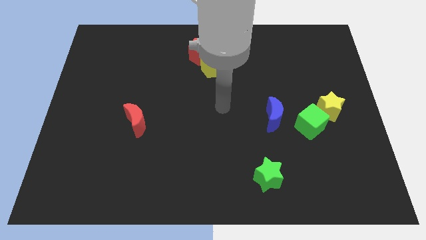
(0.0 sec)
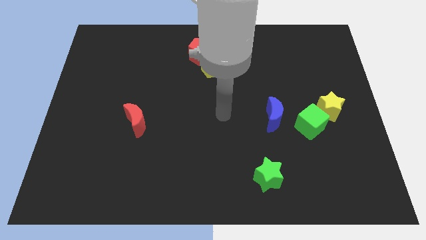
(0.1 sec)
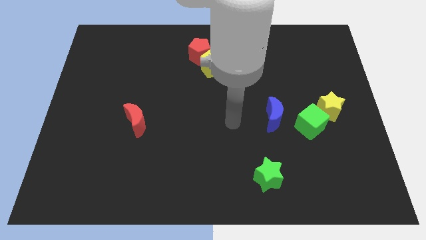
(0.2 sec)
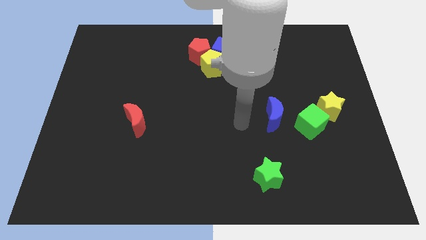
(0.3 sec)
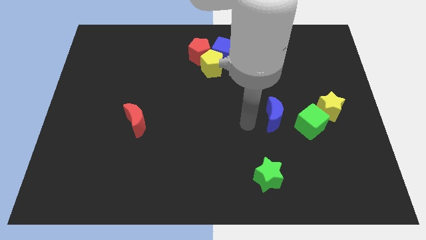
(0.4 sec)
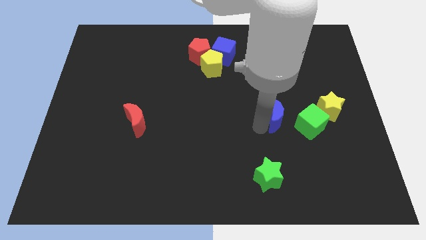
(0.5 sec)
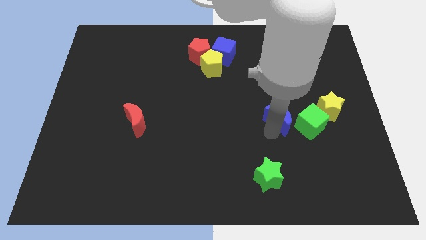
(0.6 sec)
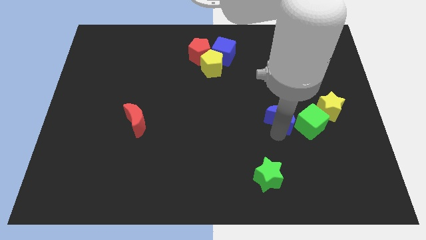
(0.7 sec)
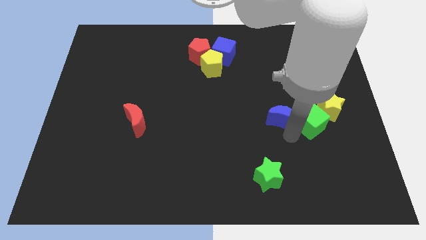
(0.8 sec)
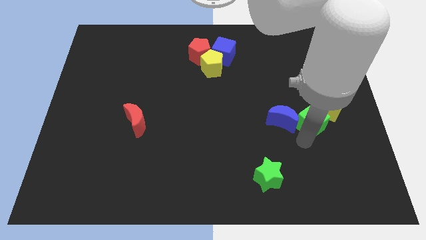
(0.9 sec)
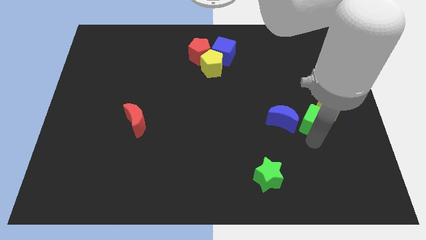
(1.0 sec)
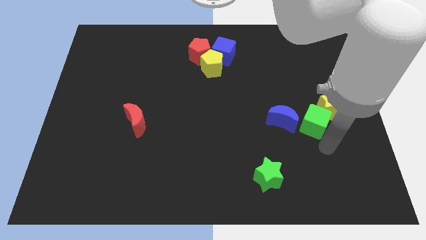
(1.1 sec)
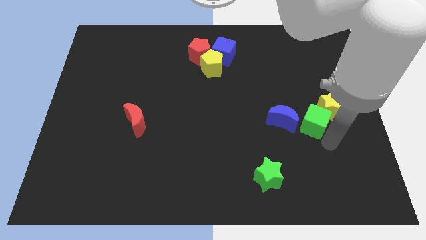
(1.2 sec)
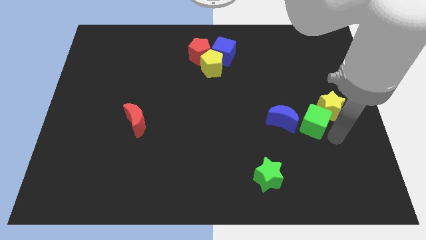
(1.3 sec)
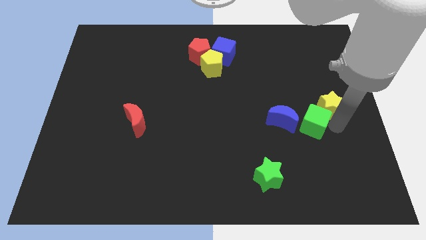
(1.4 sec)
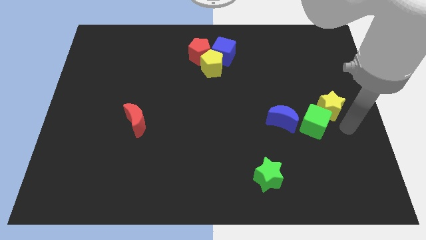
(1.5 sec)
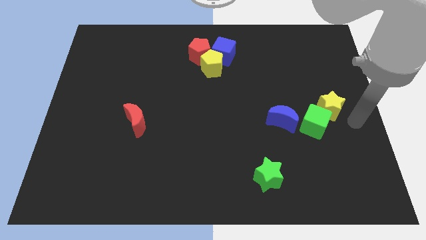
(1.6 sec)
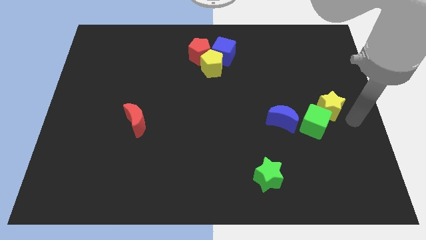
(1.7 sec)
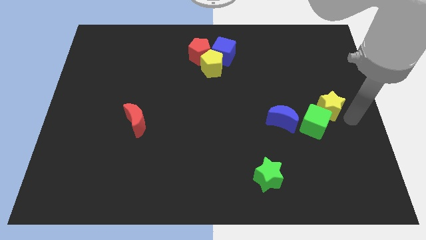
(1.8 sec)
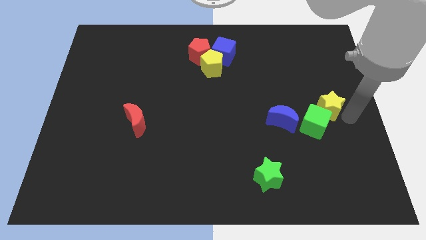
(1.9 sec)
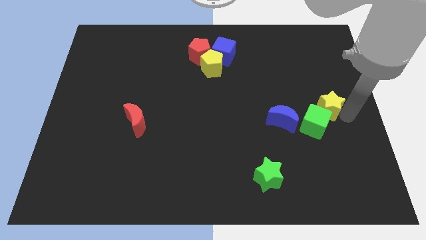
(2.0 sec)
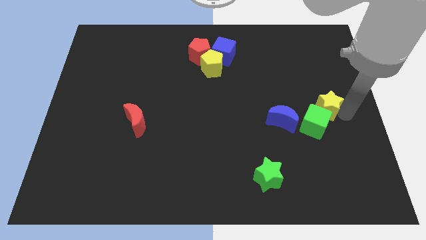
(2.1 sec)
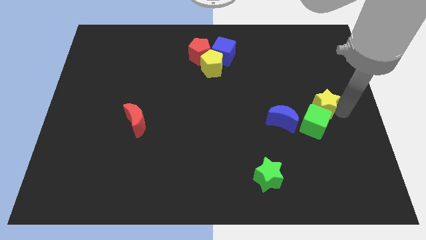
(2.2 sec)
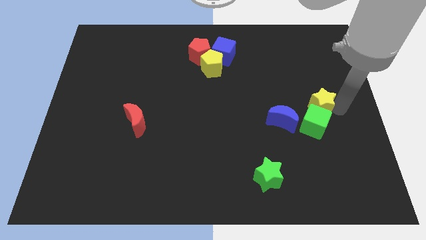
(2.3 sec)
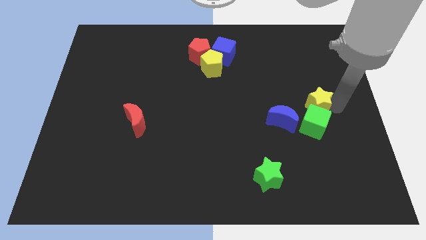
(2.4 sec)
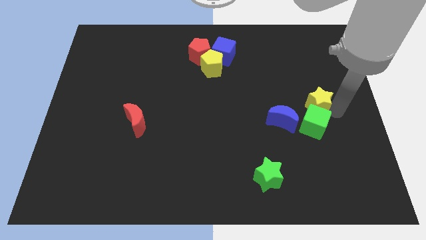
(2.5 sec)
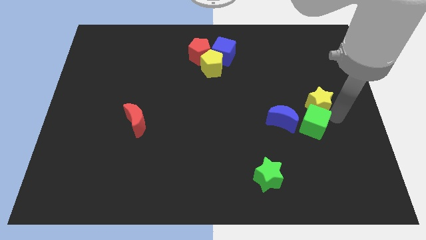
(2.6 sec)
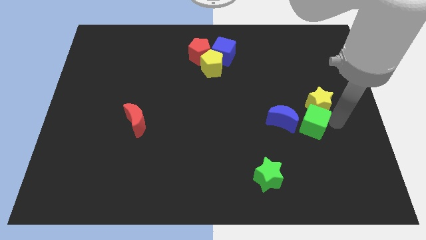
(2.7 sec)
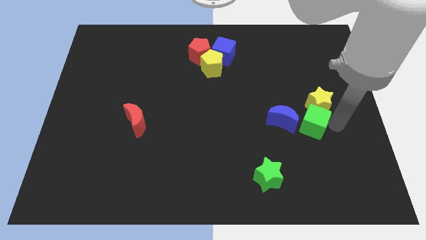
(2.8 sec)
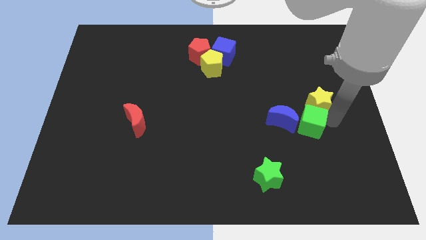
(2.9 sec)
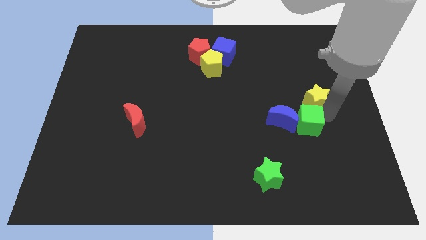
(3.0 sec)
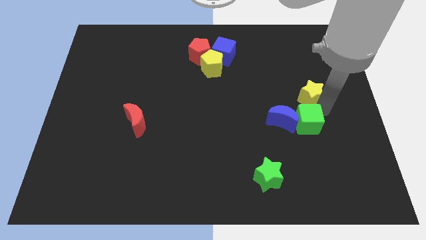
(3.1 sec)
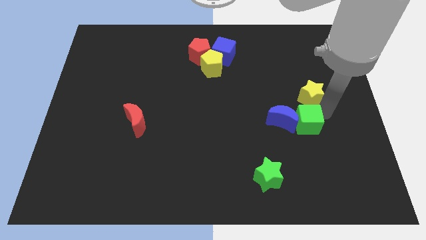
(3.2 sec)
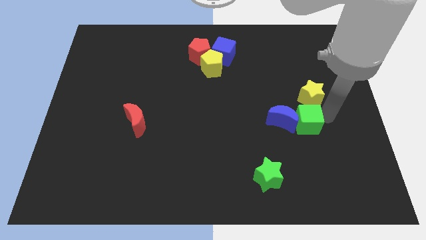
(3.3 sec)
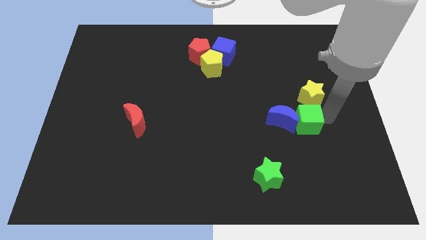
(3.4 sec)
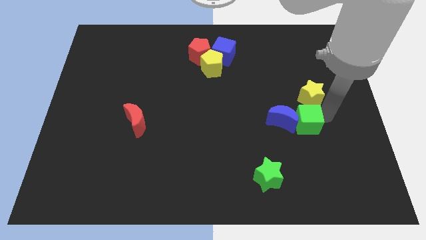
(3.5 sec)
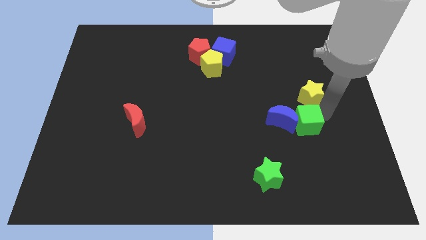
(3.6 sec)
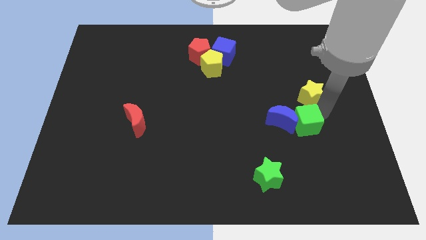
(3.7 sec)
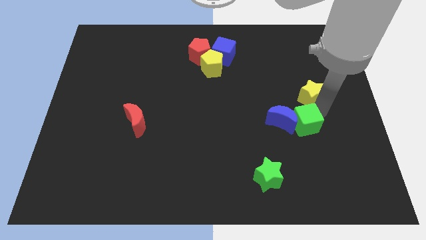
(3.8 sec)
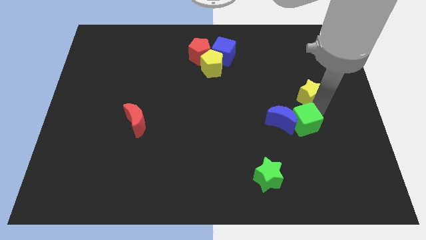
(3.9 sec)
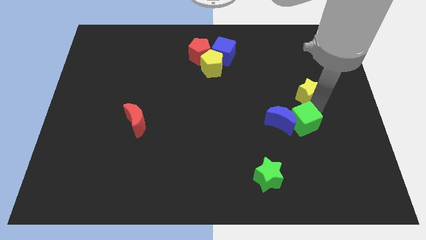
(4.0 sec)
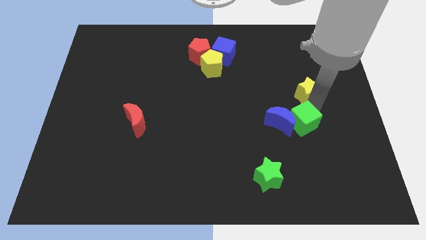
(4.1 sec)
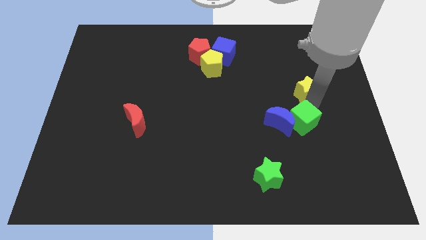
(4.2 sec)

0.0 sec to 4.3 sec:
push the yellow star upwards and then left a little

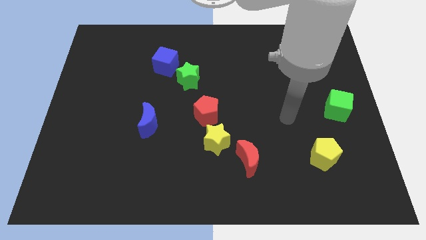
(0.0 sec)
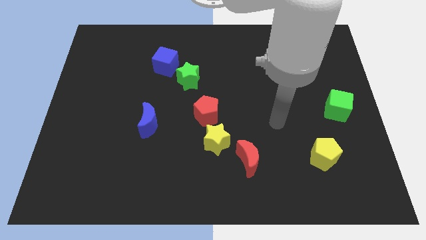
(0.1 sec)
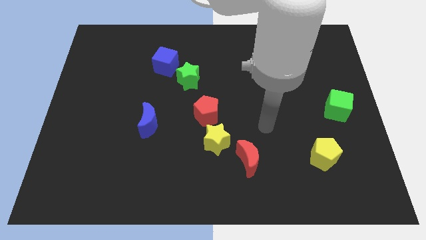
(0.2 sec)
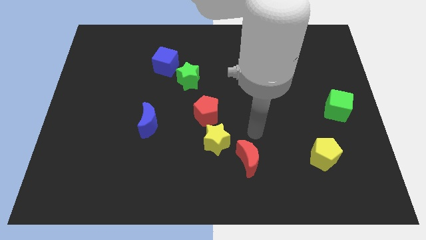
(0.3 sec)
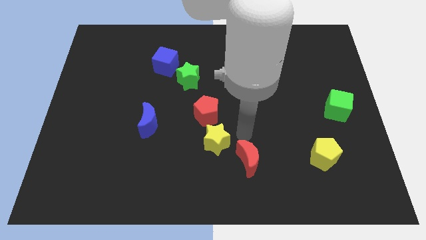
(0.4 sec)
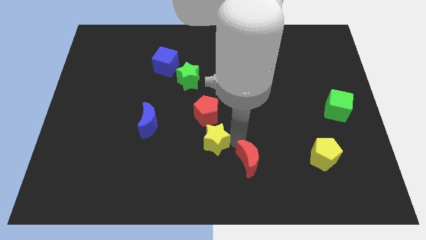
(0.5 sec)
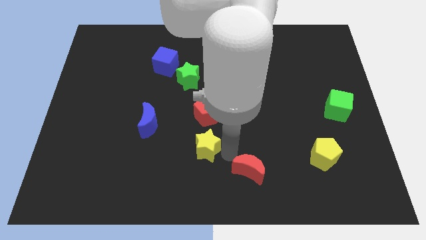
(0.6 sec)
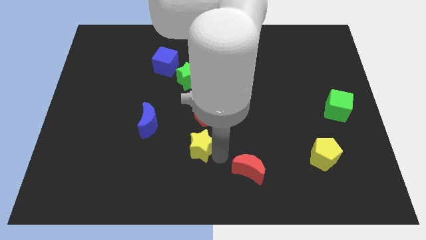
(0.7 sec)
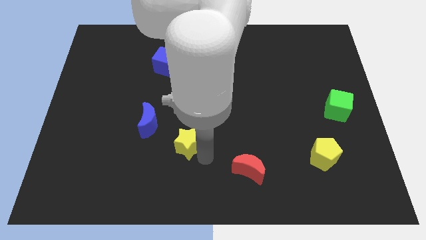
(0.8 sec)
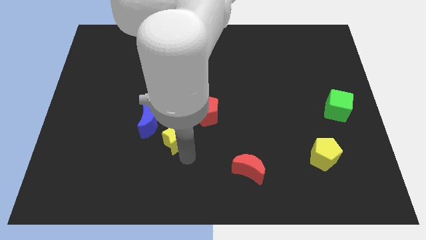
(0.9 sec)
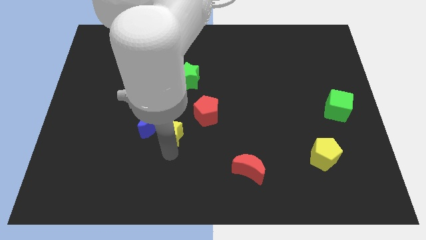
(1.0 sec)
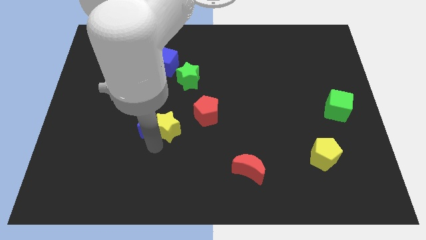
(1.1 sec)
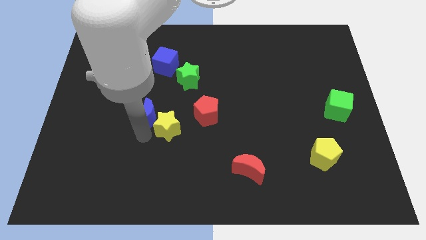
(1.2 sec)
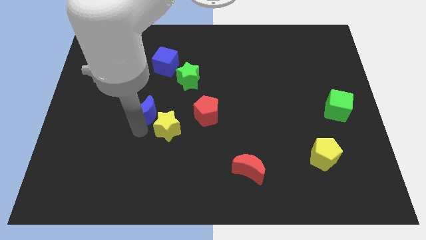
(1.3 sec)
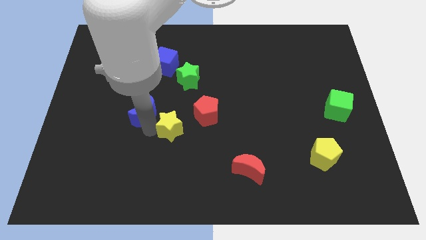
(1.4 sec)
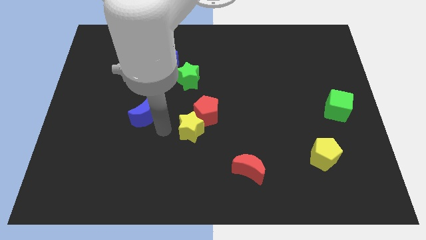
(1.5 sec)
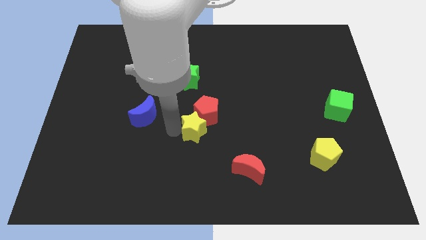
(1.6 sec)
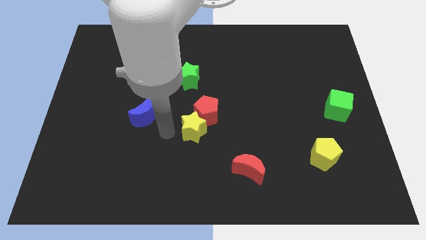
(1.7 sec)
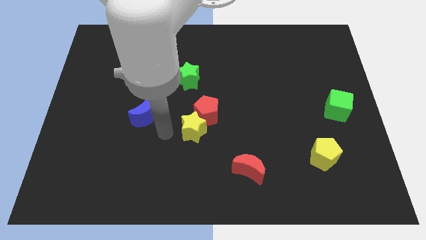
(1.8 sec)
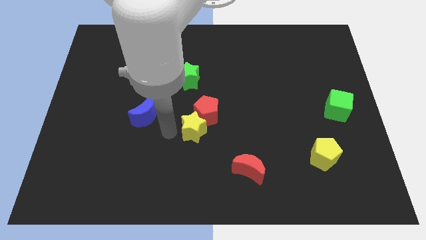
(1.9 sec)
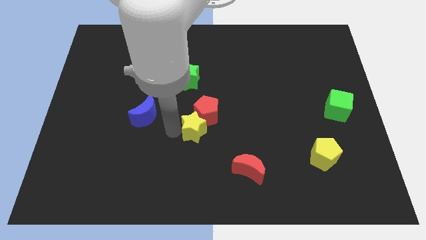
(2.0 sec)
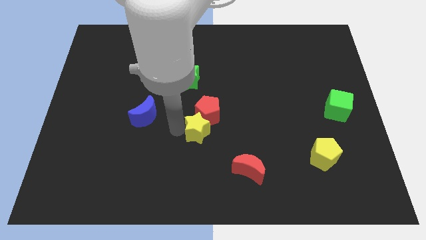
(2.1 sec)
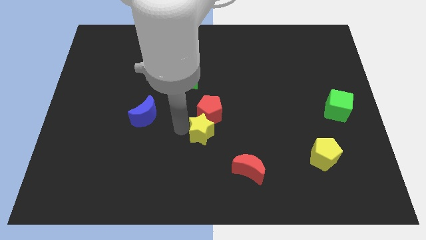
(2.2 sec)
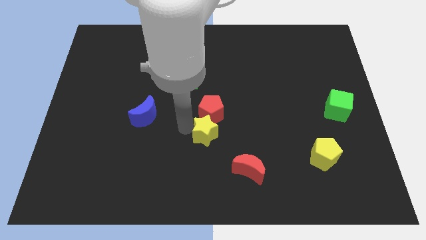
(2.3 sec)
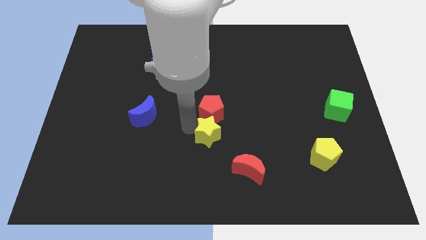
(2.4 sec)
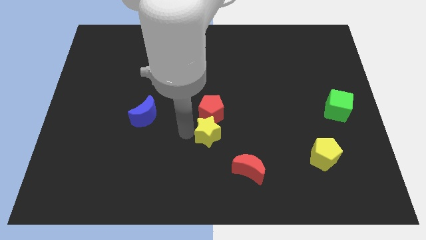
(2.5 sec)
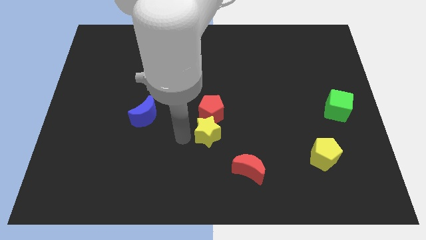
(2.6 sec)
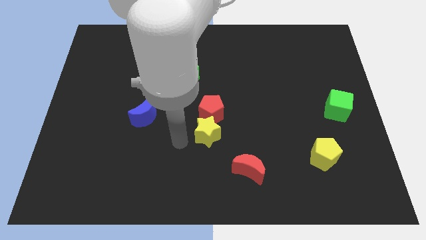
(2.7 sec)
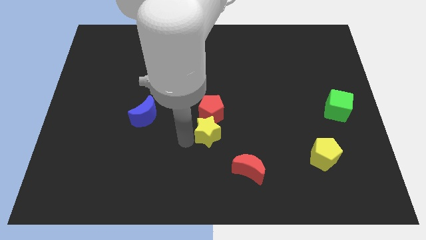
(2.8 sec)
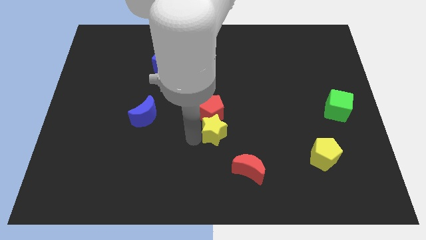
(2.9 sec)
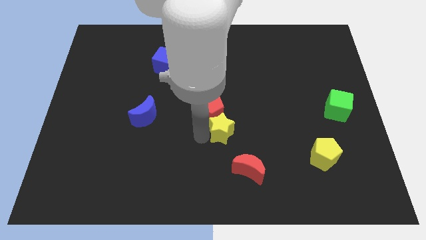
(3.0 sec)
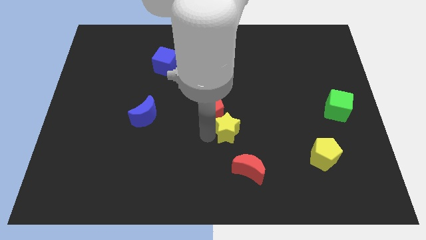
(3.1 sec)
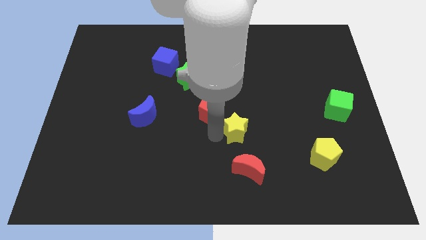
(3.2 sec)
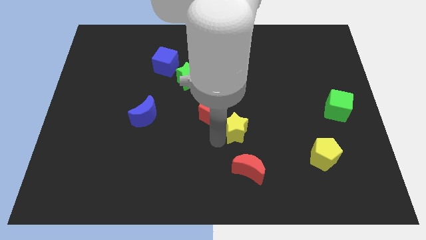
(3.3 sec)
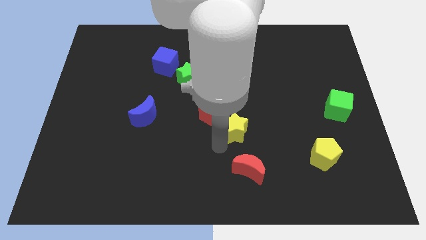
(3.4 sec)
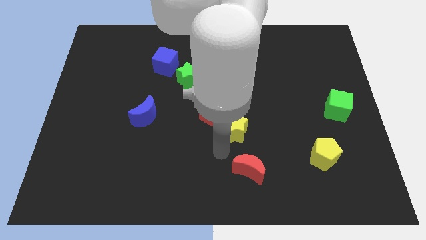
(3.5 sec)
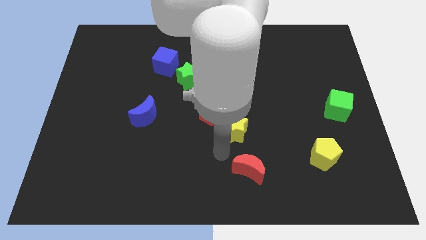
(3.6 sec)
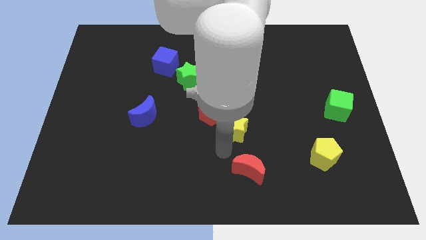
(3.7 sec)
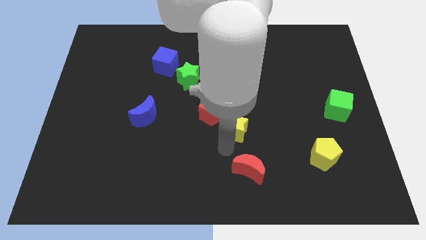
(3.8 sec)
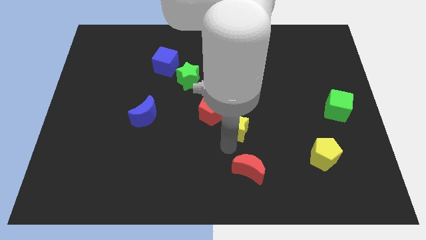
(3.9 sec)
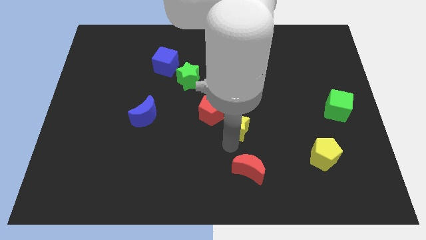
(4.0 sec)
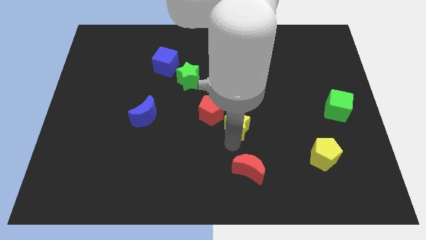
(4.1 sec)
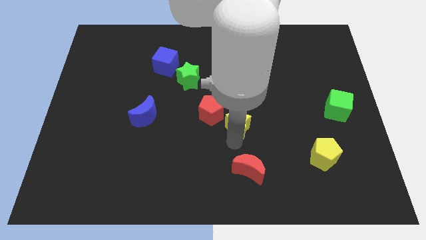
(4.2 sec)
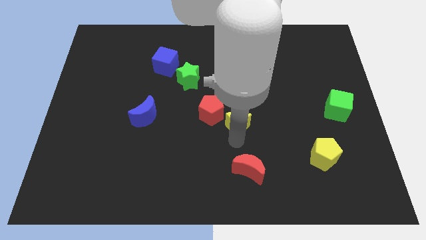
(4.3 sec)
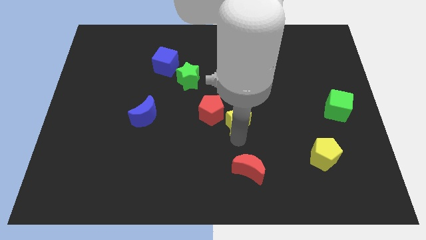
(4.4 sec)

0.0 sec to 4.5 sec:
move the yellow star a little bit up and right diagonally
